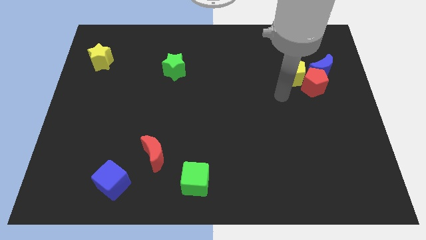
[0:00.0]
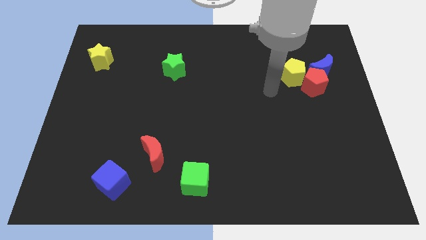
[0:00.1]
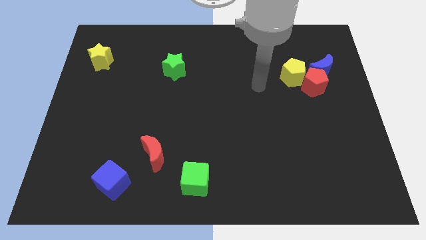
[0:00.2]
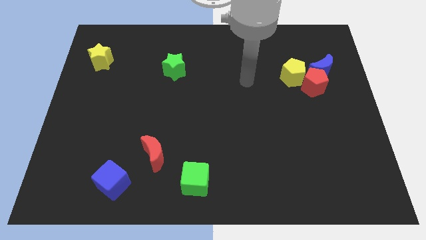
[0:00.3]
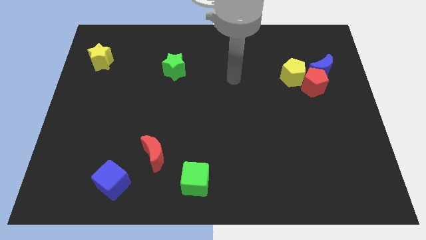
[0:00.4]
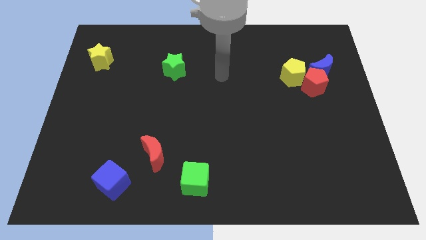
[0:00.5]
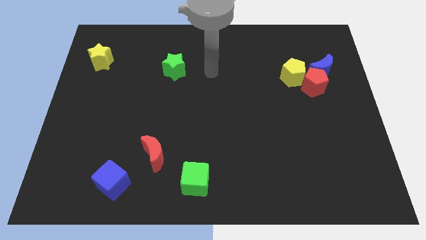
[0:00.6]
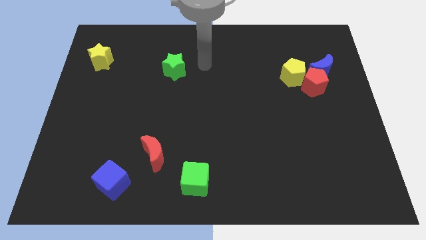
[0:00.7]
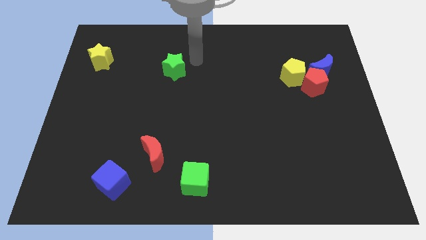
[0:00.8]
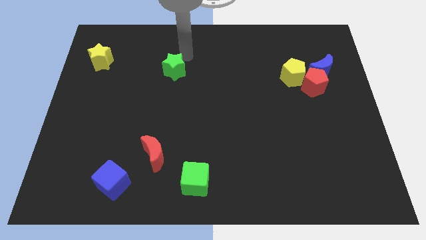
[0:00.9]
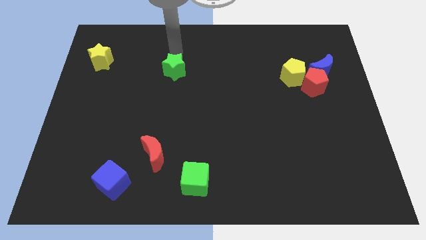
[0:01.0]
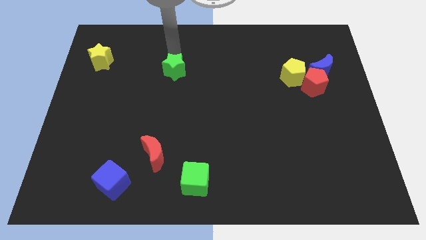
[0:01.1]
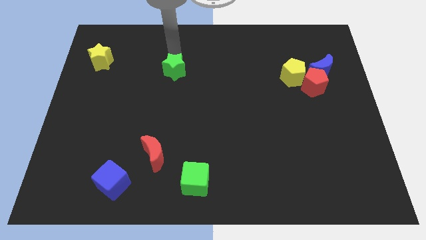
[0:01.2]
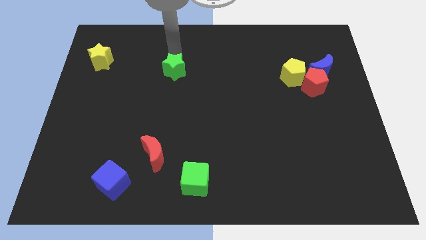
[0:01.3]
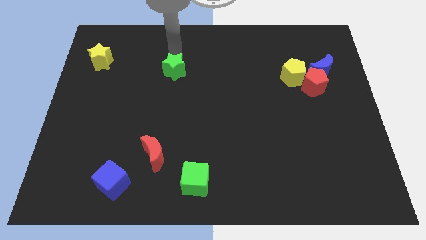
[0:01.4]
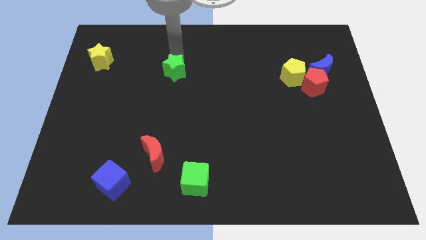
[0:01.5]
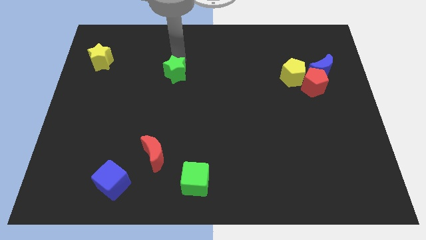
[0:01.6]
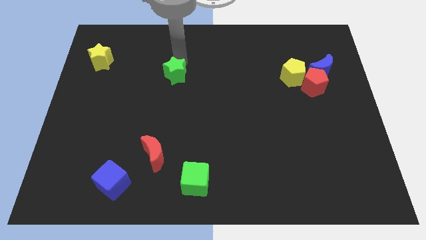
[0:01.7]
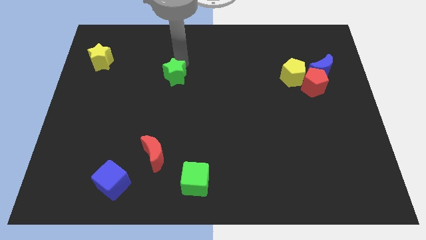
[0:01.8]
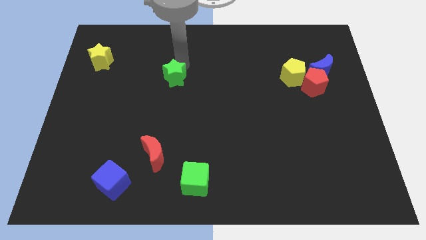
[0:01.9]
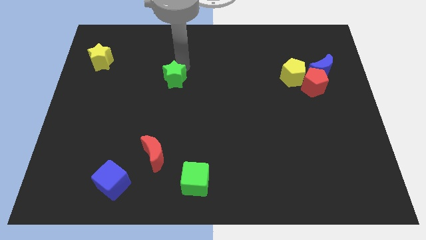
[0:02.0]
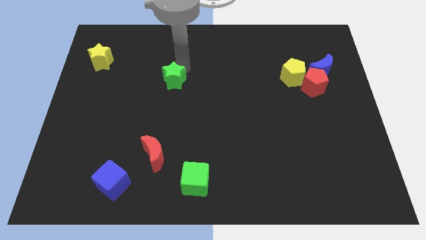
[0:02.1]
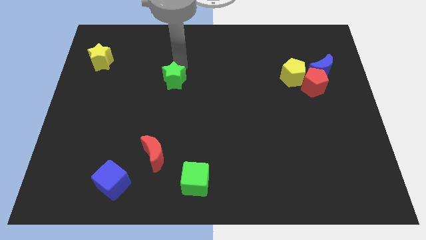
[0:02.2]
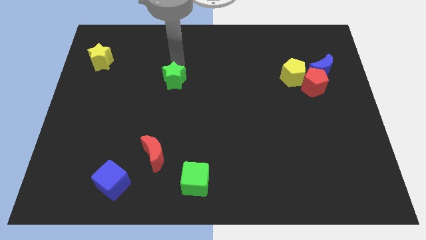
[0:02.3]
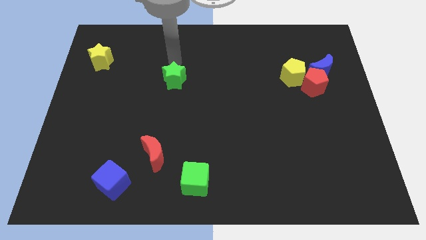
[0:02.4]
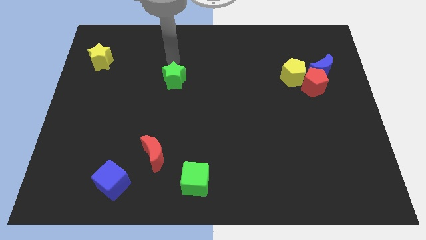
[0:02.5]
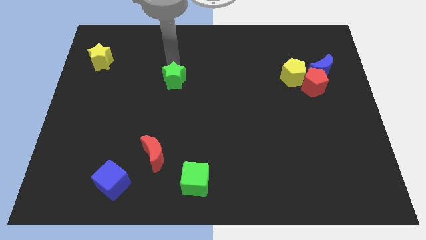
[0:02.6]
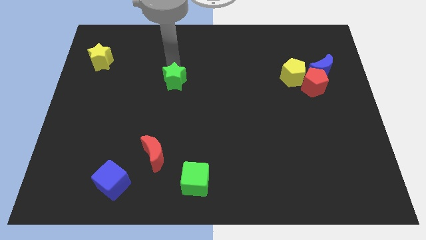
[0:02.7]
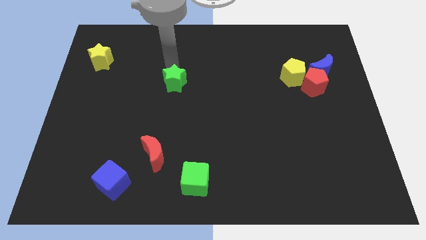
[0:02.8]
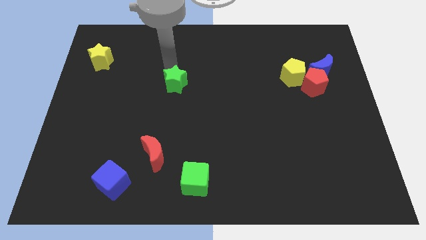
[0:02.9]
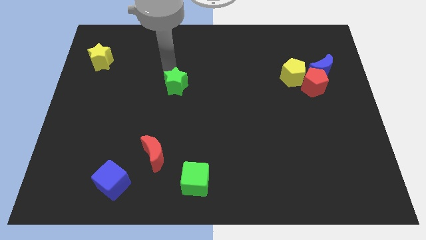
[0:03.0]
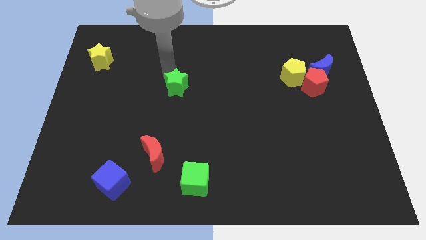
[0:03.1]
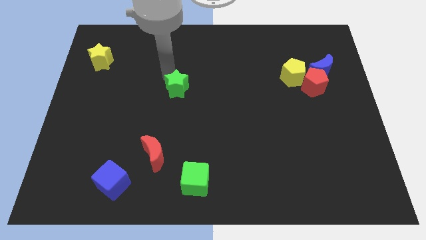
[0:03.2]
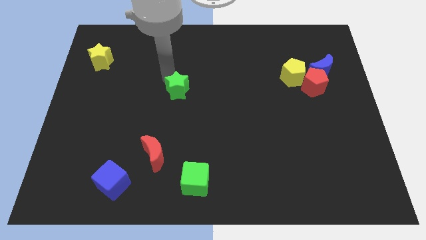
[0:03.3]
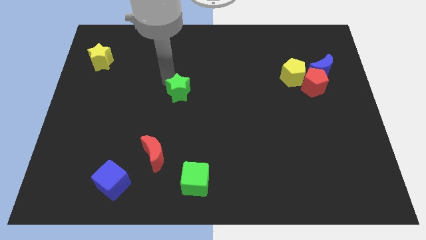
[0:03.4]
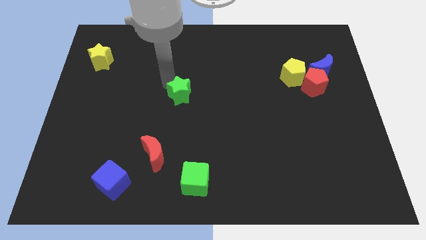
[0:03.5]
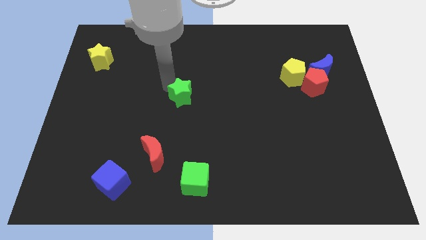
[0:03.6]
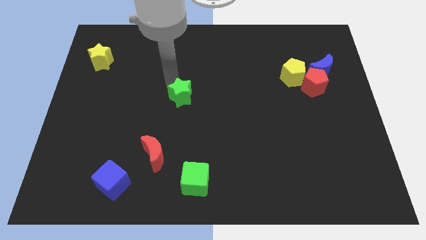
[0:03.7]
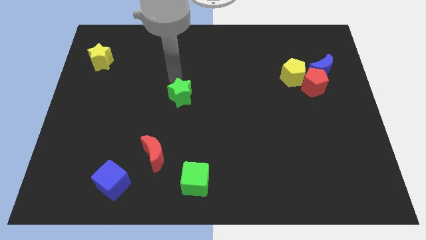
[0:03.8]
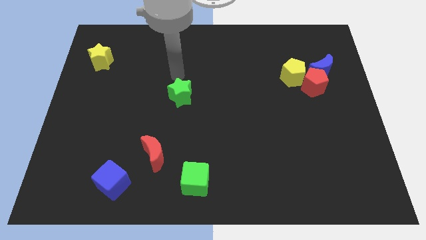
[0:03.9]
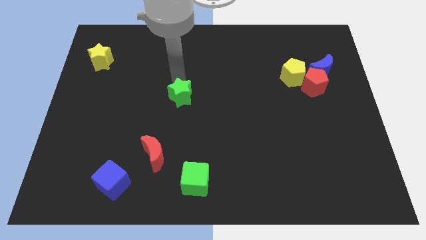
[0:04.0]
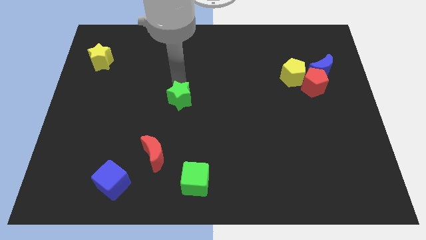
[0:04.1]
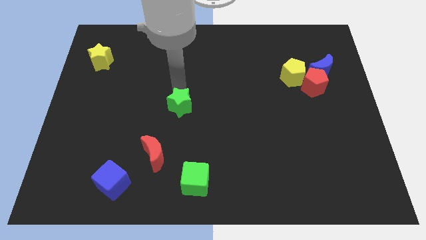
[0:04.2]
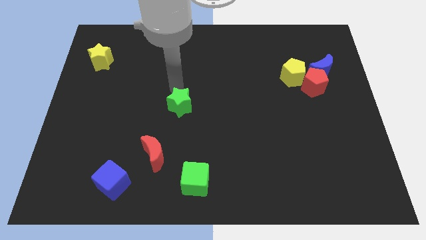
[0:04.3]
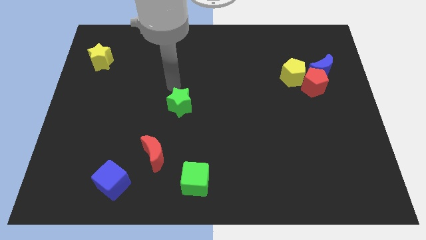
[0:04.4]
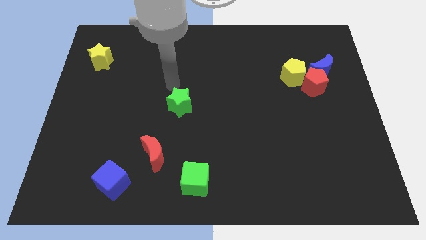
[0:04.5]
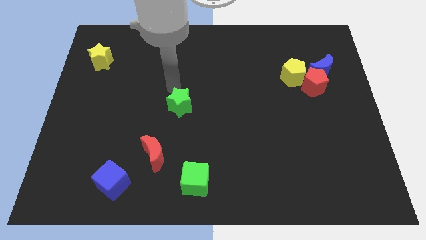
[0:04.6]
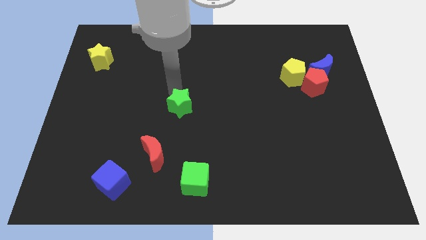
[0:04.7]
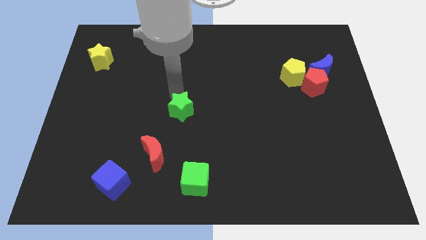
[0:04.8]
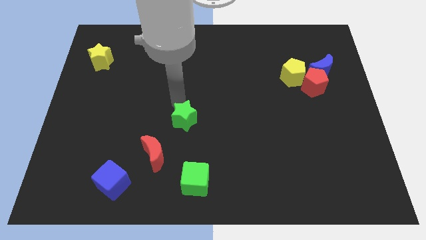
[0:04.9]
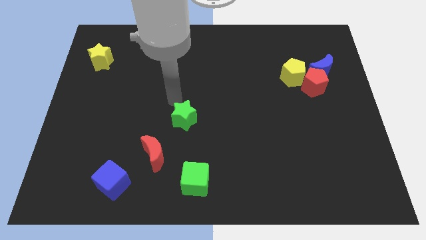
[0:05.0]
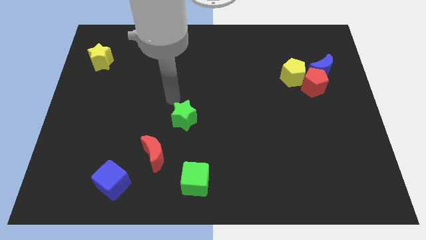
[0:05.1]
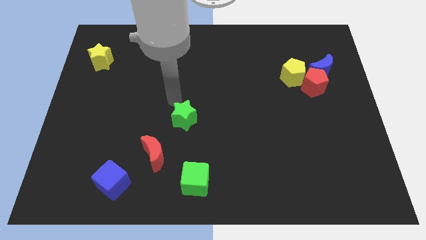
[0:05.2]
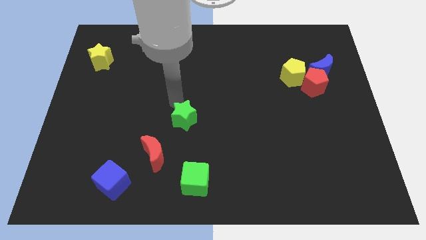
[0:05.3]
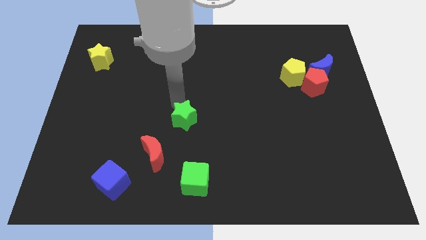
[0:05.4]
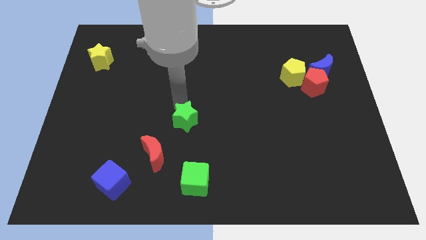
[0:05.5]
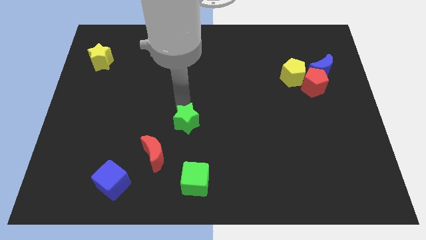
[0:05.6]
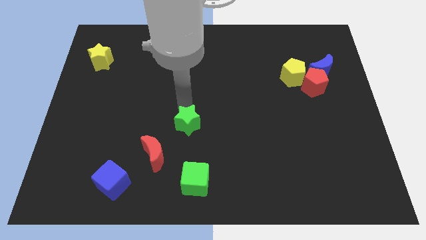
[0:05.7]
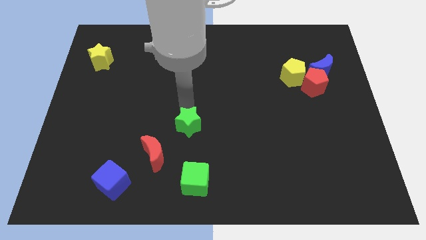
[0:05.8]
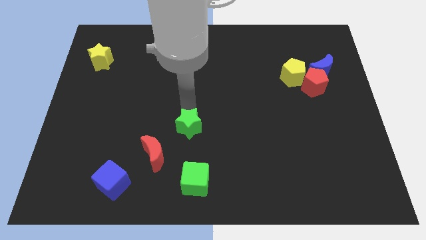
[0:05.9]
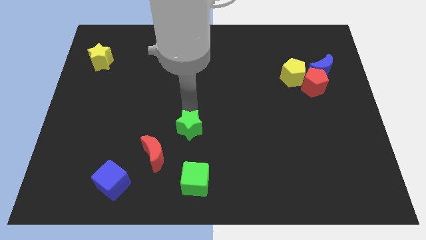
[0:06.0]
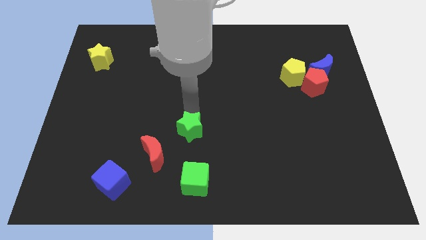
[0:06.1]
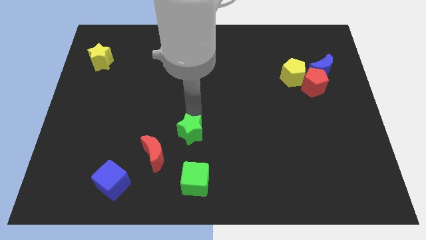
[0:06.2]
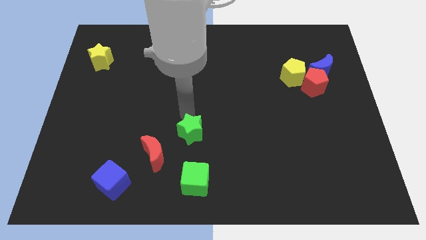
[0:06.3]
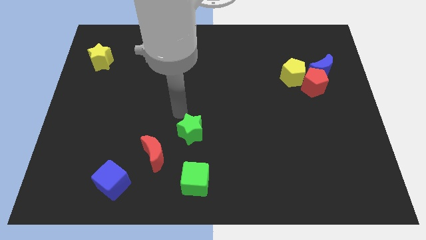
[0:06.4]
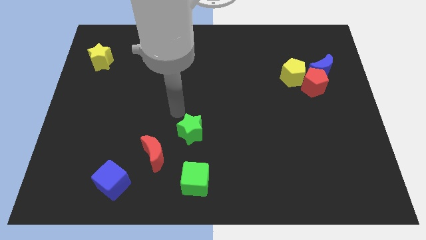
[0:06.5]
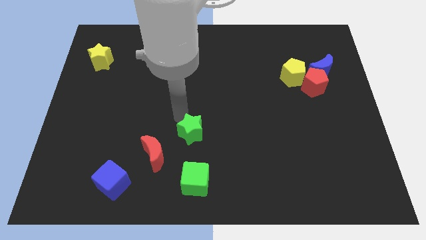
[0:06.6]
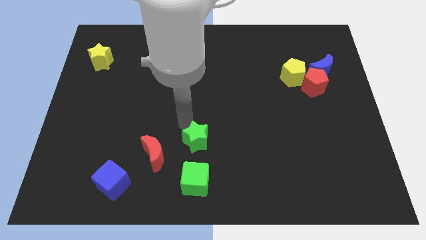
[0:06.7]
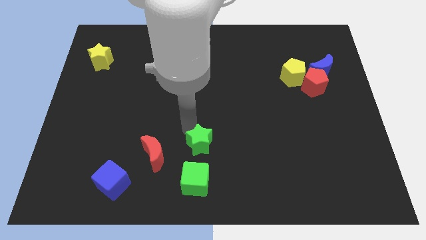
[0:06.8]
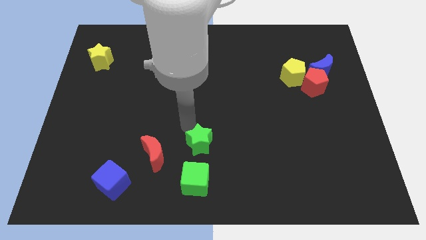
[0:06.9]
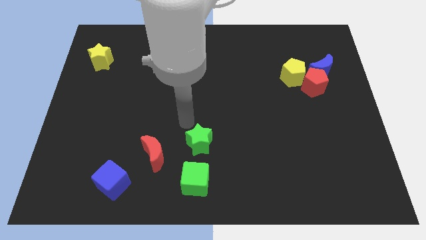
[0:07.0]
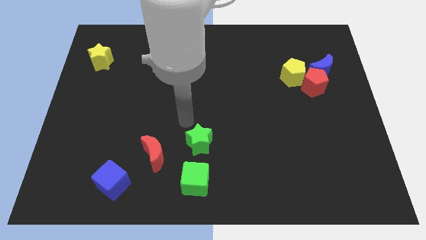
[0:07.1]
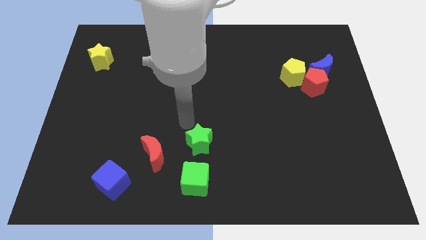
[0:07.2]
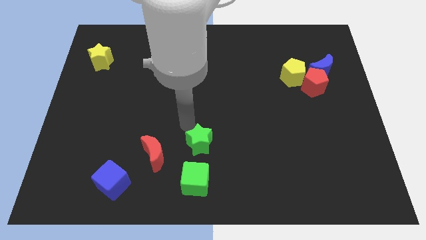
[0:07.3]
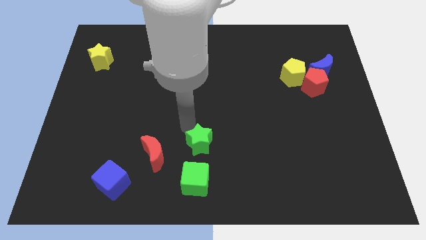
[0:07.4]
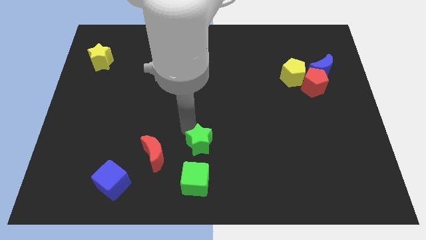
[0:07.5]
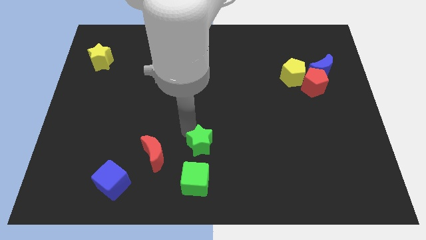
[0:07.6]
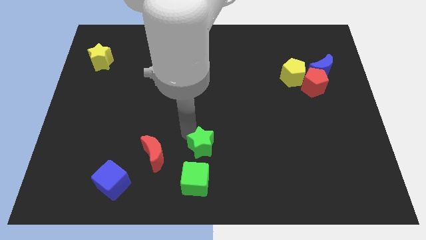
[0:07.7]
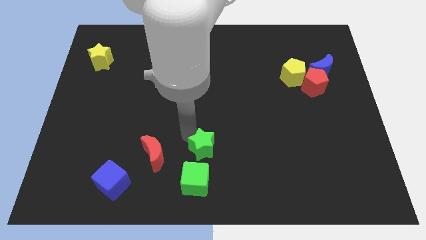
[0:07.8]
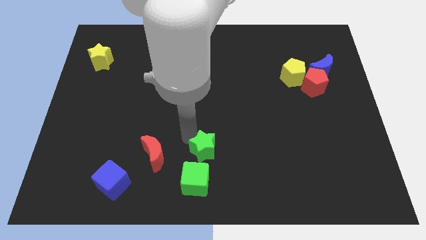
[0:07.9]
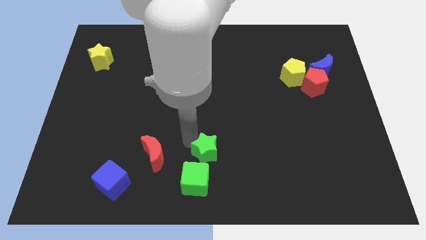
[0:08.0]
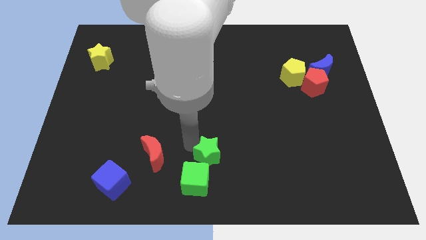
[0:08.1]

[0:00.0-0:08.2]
push the green star to the bottom side
